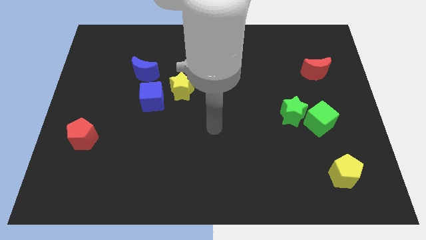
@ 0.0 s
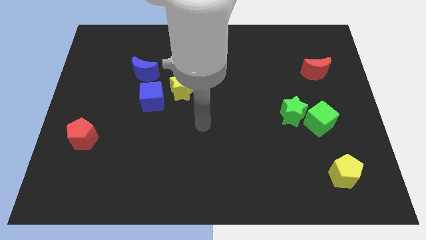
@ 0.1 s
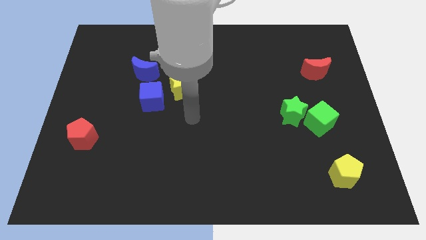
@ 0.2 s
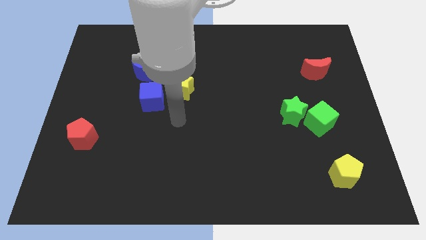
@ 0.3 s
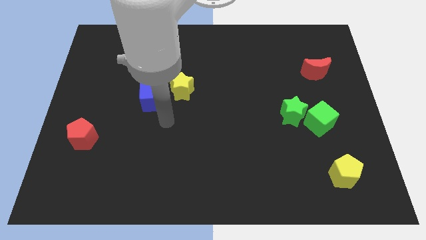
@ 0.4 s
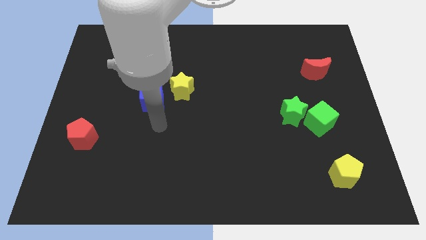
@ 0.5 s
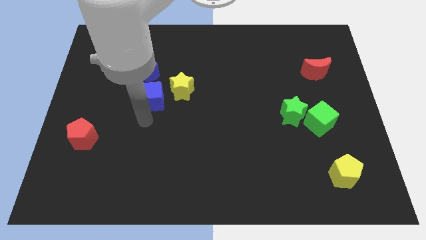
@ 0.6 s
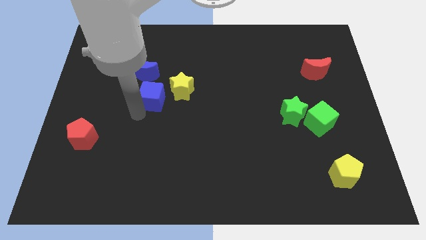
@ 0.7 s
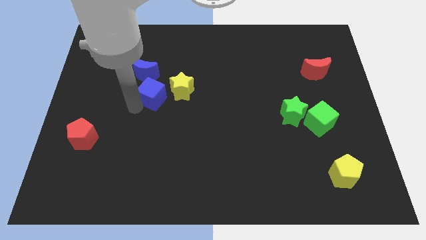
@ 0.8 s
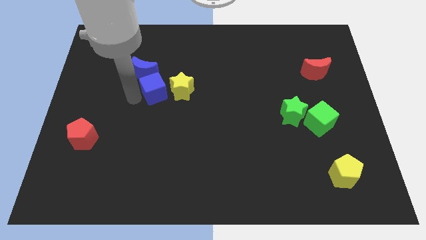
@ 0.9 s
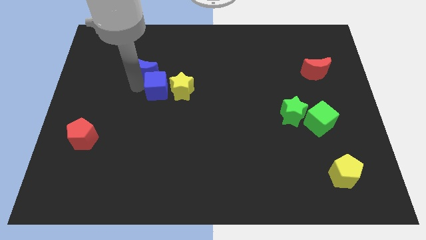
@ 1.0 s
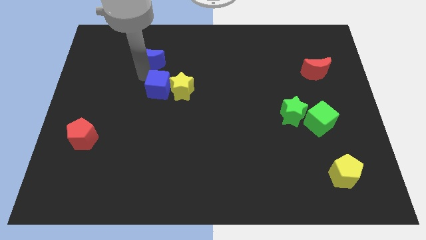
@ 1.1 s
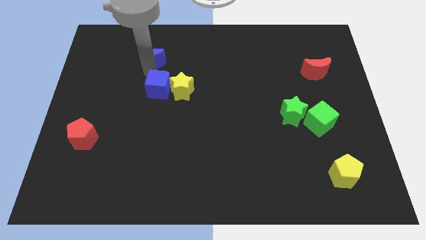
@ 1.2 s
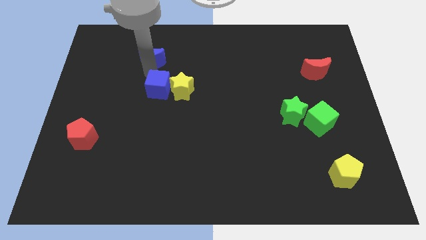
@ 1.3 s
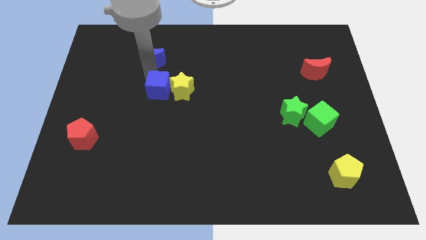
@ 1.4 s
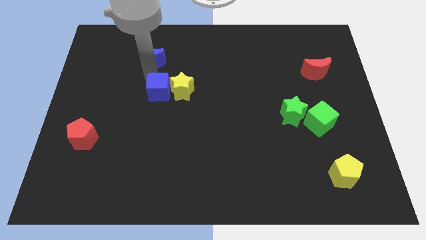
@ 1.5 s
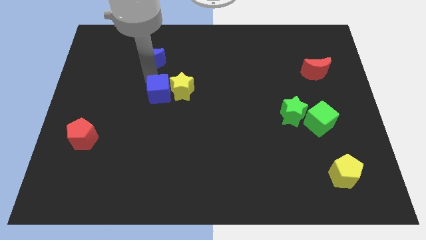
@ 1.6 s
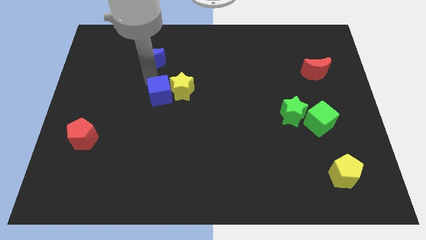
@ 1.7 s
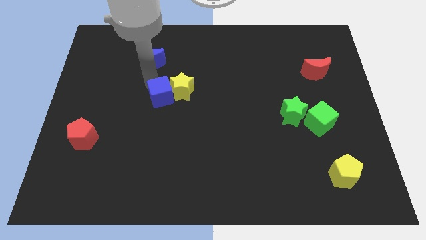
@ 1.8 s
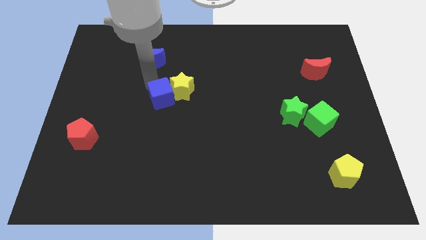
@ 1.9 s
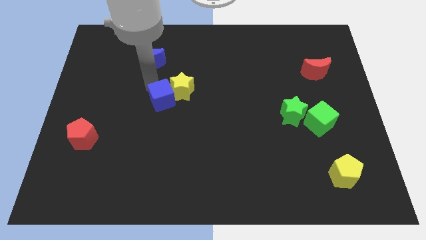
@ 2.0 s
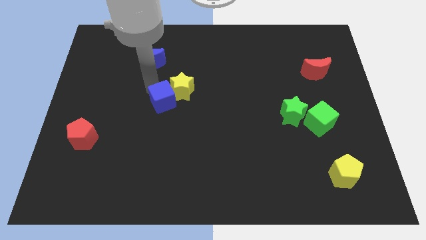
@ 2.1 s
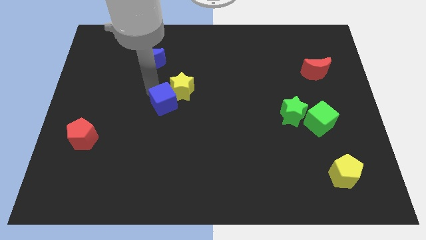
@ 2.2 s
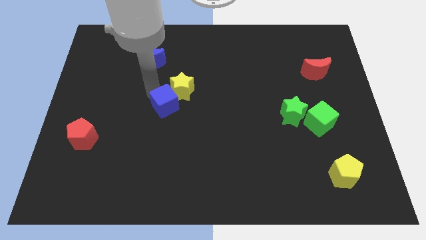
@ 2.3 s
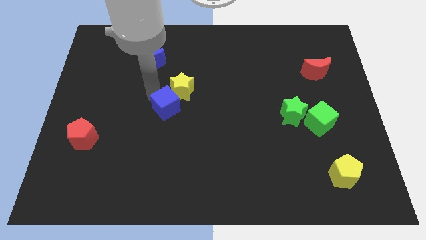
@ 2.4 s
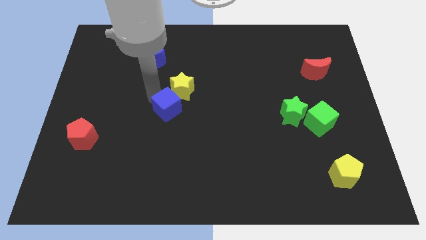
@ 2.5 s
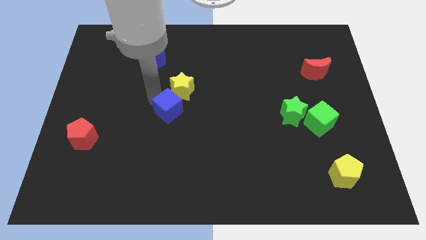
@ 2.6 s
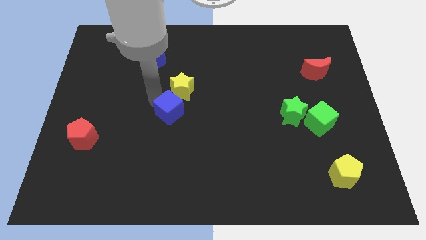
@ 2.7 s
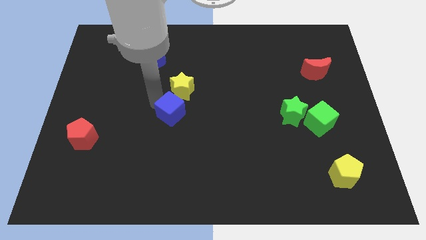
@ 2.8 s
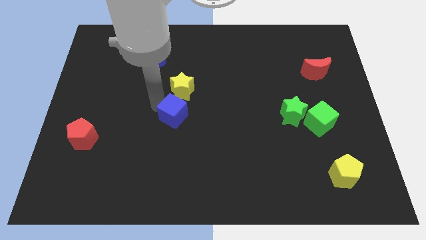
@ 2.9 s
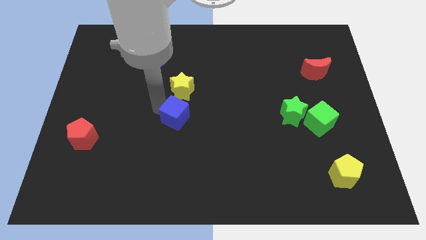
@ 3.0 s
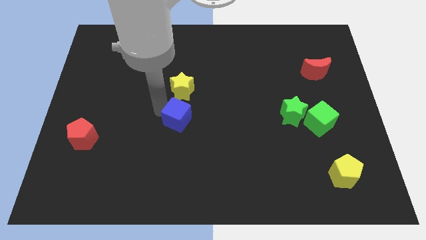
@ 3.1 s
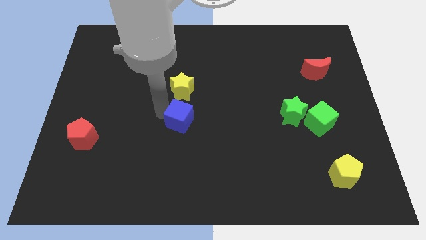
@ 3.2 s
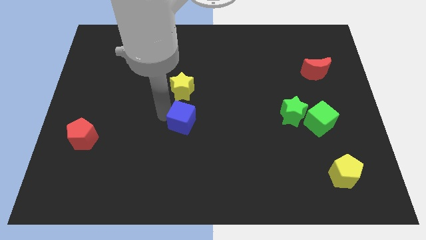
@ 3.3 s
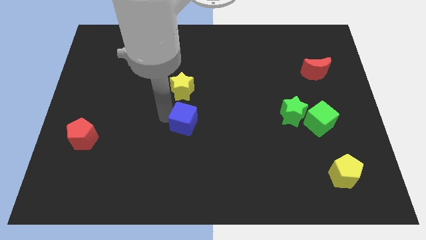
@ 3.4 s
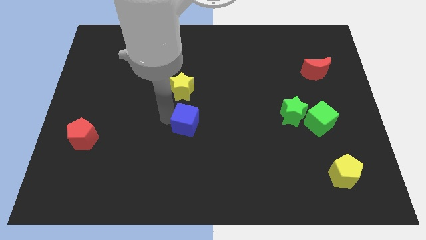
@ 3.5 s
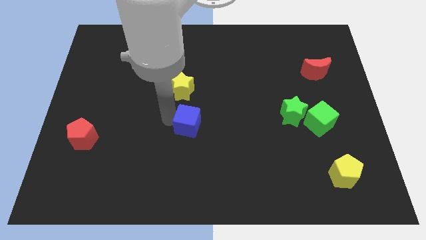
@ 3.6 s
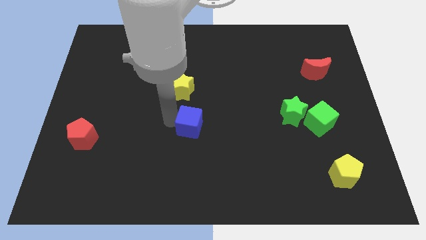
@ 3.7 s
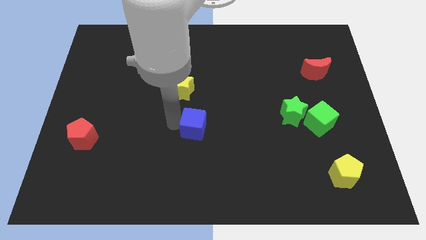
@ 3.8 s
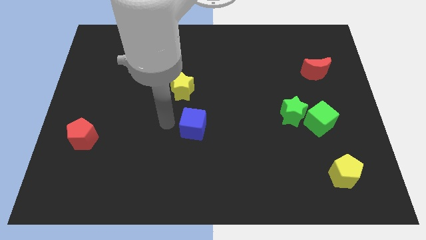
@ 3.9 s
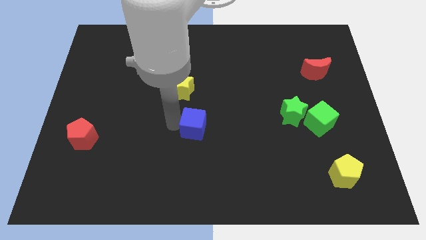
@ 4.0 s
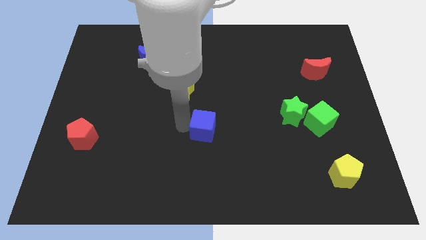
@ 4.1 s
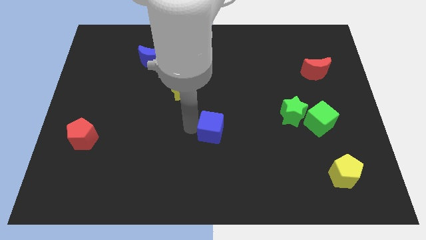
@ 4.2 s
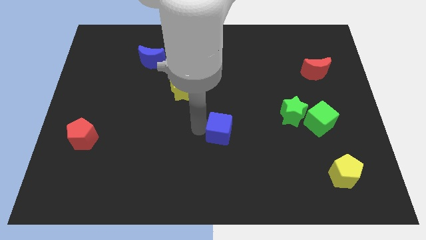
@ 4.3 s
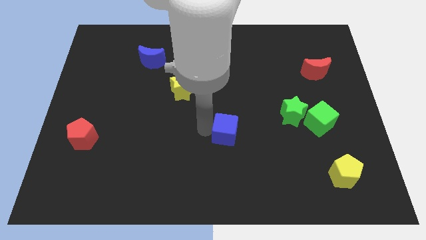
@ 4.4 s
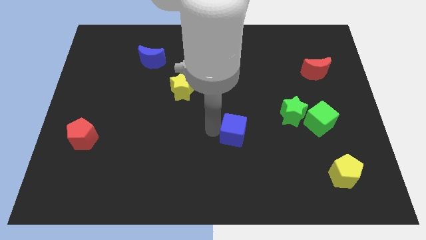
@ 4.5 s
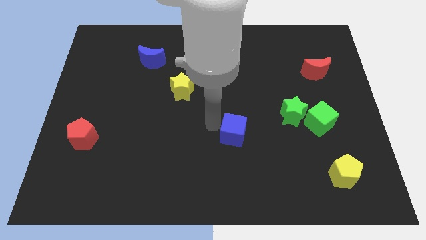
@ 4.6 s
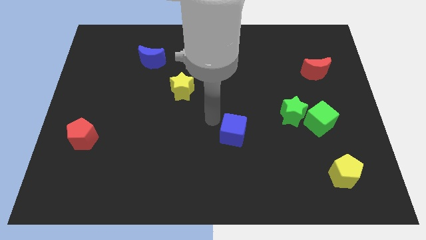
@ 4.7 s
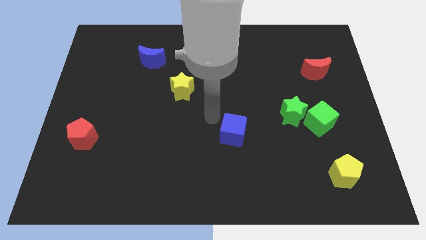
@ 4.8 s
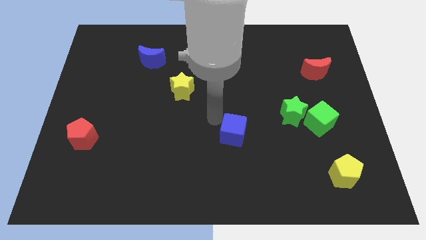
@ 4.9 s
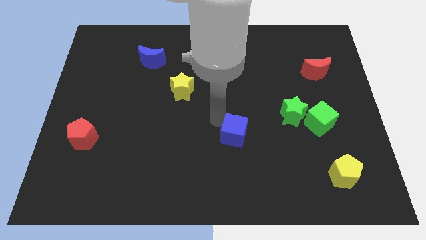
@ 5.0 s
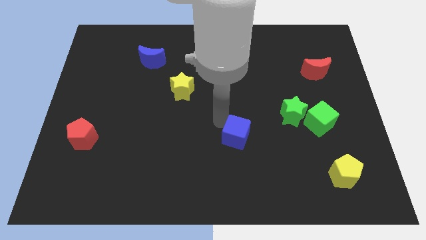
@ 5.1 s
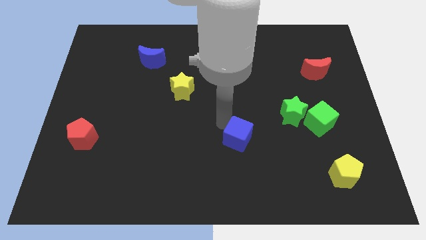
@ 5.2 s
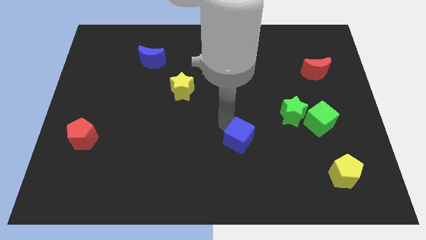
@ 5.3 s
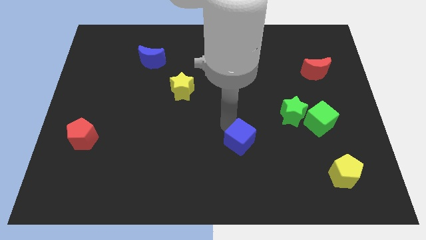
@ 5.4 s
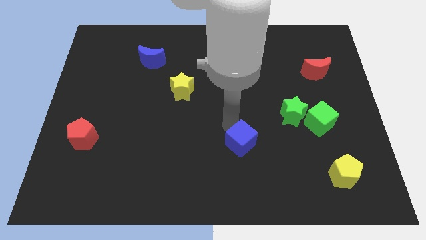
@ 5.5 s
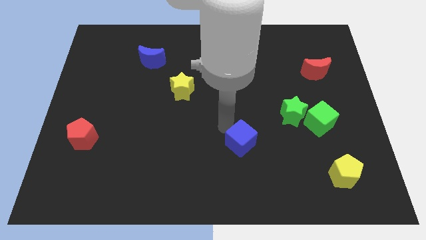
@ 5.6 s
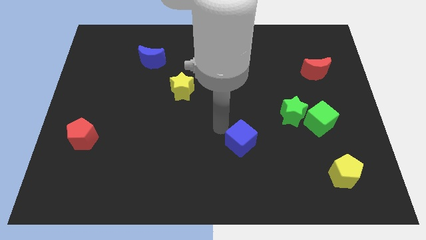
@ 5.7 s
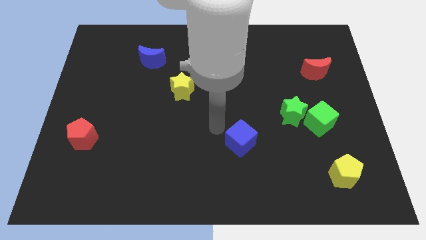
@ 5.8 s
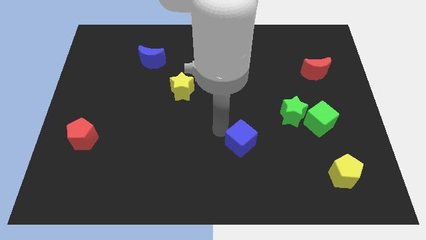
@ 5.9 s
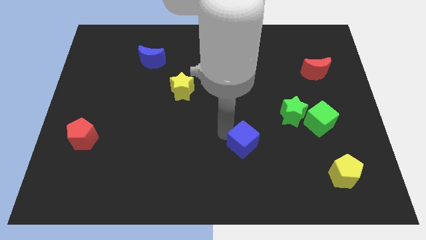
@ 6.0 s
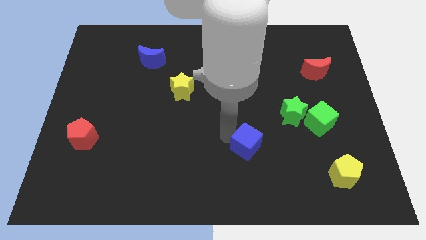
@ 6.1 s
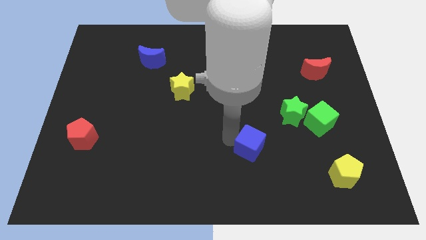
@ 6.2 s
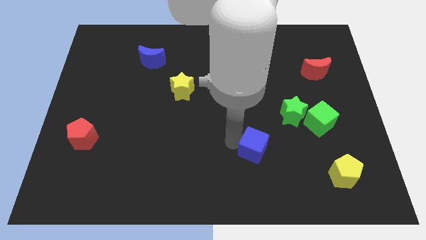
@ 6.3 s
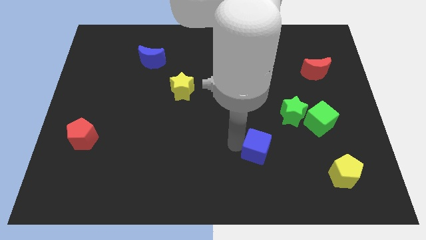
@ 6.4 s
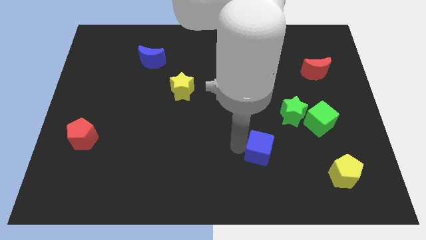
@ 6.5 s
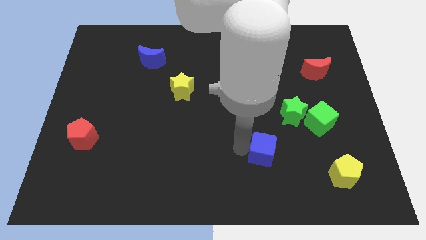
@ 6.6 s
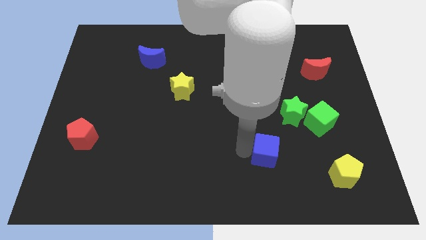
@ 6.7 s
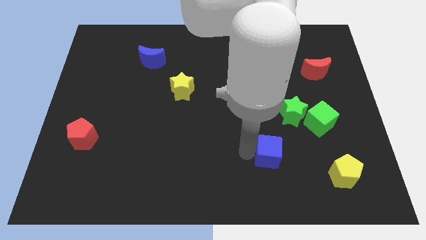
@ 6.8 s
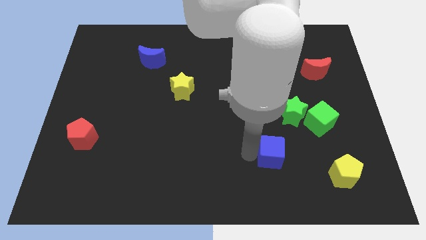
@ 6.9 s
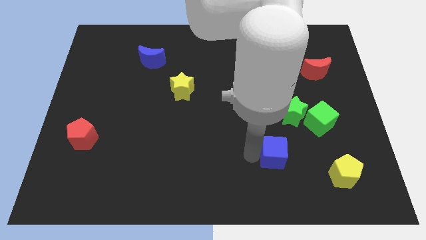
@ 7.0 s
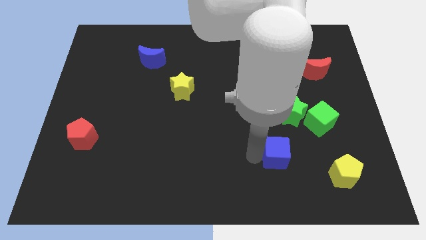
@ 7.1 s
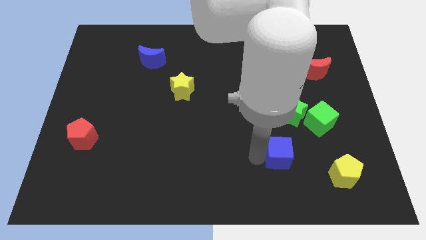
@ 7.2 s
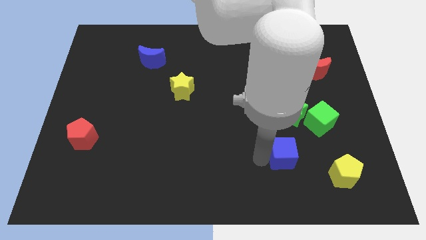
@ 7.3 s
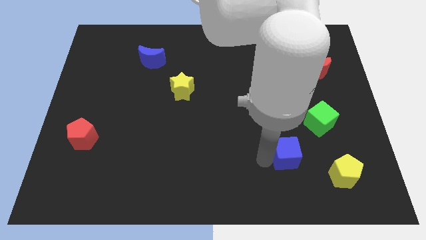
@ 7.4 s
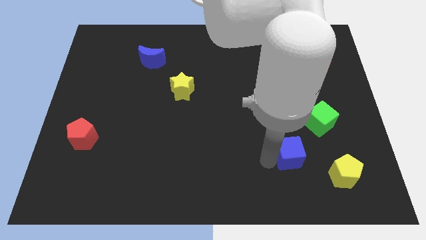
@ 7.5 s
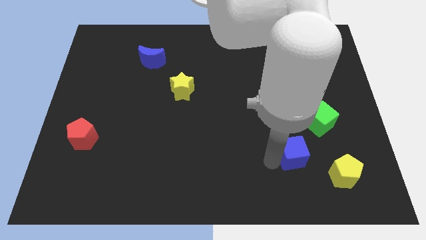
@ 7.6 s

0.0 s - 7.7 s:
move the blue cube to the top left side of the yellow pentagon
